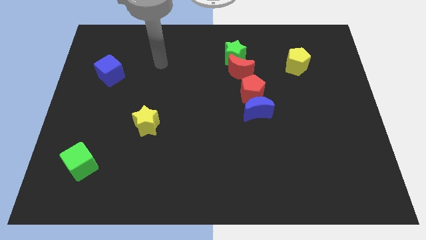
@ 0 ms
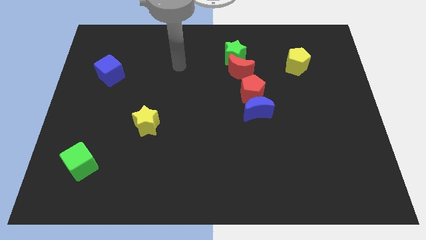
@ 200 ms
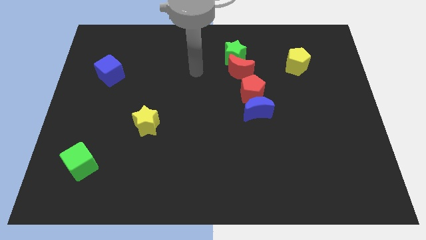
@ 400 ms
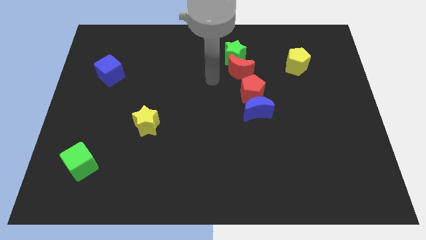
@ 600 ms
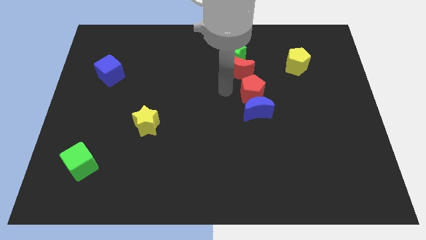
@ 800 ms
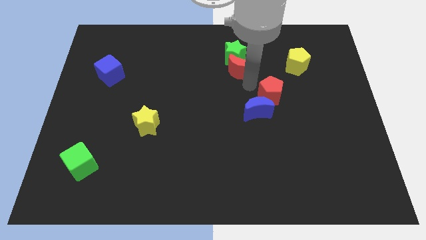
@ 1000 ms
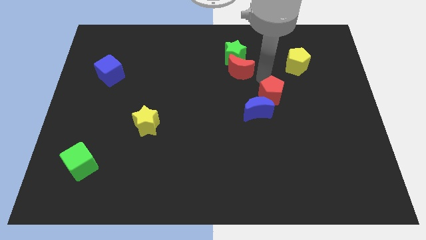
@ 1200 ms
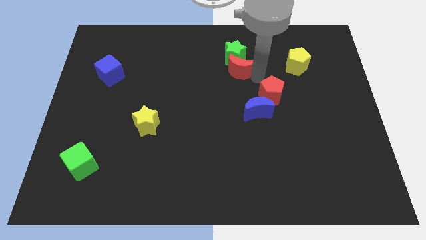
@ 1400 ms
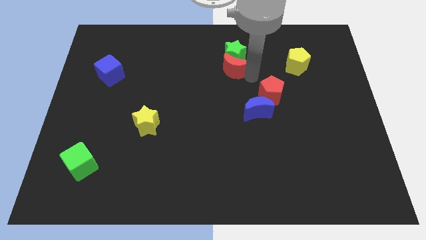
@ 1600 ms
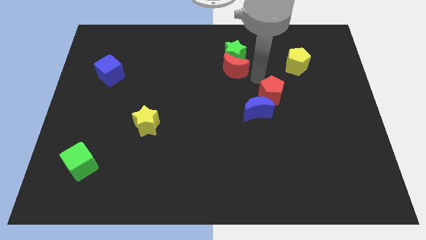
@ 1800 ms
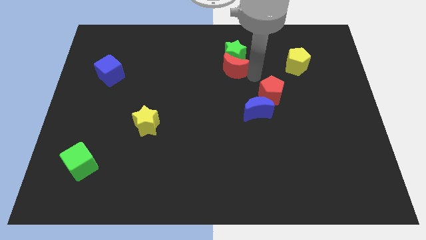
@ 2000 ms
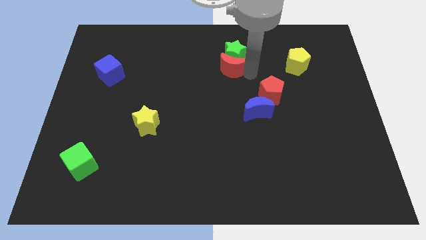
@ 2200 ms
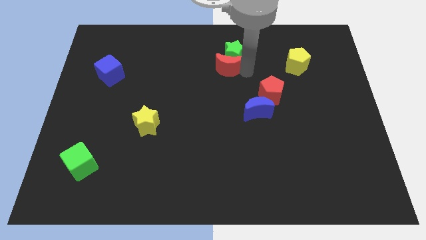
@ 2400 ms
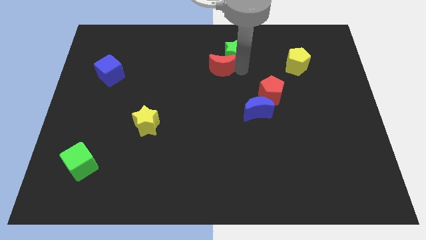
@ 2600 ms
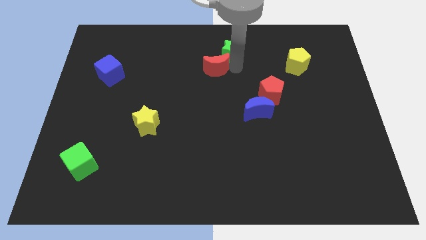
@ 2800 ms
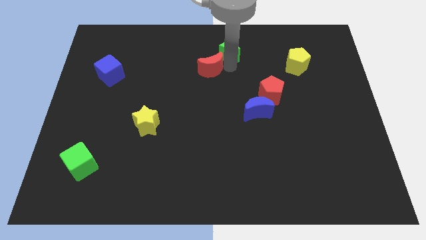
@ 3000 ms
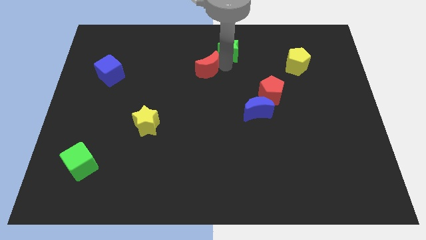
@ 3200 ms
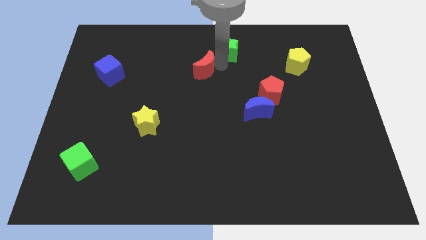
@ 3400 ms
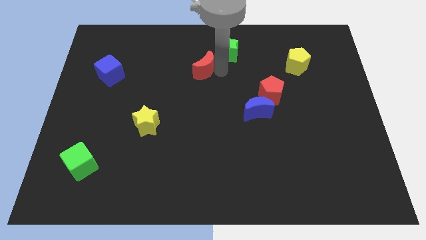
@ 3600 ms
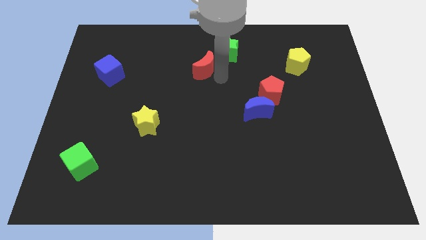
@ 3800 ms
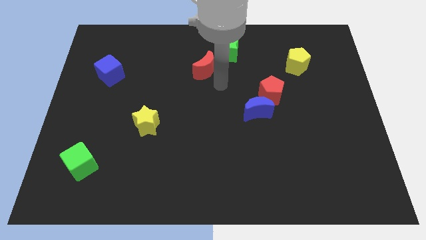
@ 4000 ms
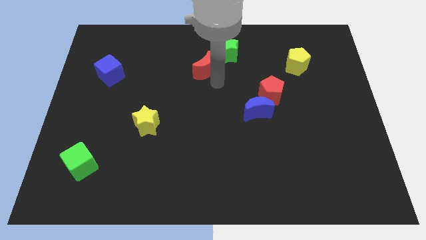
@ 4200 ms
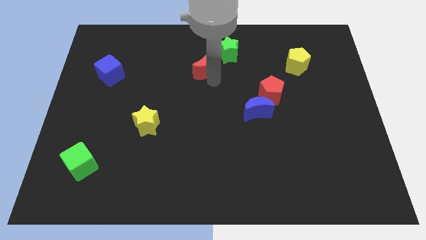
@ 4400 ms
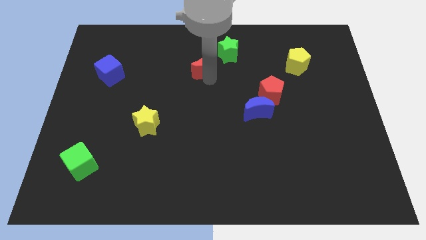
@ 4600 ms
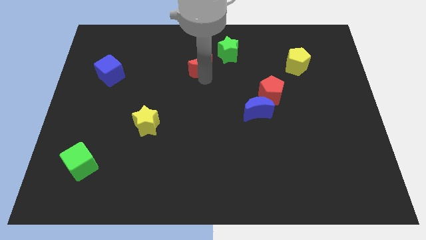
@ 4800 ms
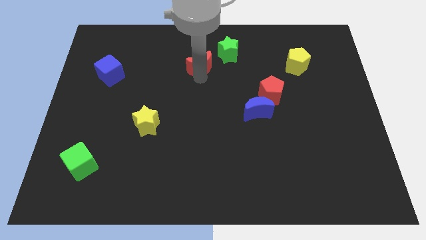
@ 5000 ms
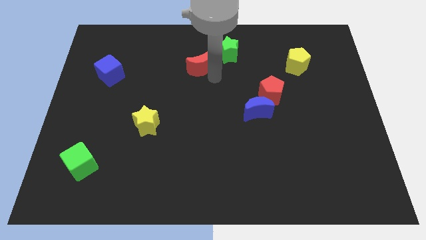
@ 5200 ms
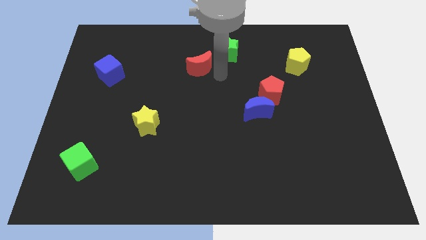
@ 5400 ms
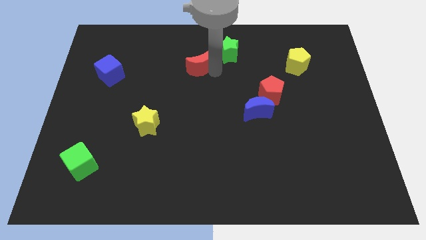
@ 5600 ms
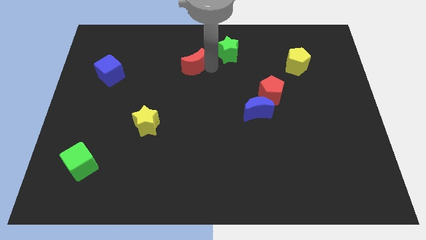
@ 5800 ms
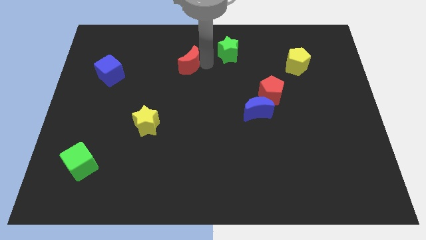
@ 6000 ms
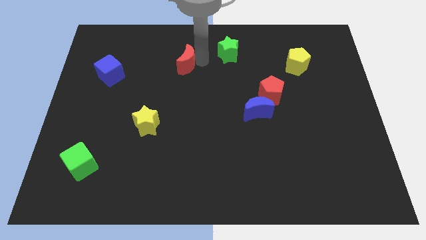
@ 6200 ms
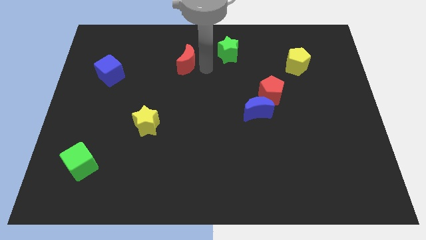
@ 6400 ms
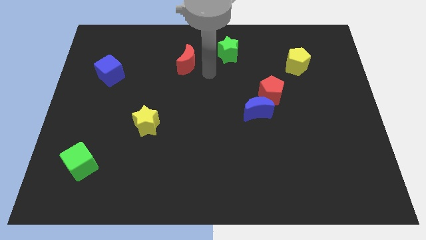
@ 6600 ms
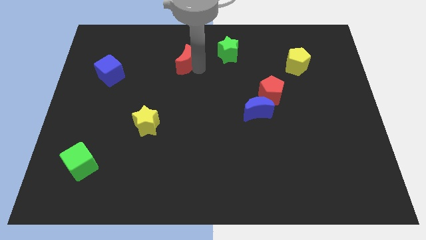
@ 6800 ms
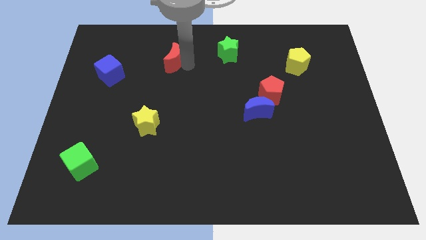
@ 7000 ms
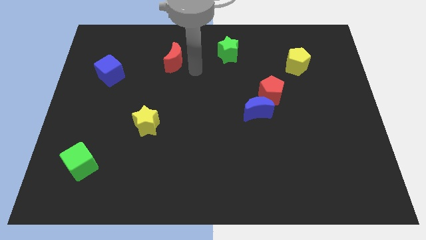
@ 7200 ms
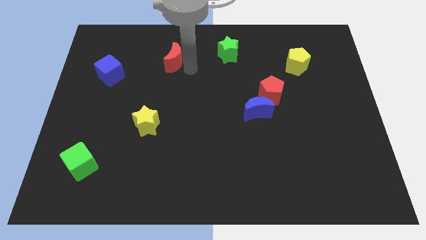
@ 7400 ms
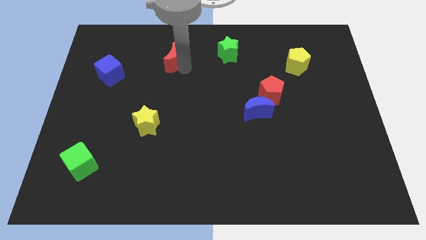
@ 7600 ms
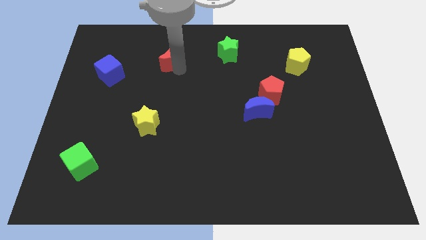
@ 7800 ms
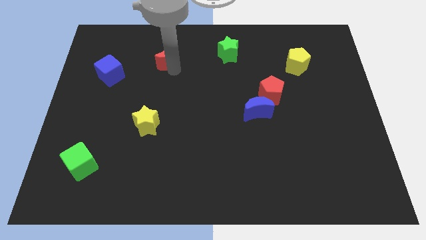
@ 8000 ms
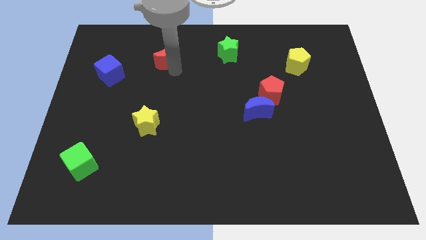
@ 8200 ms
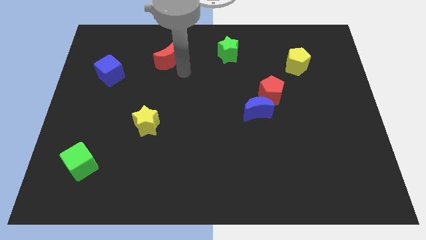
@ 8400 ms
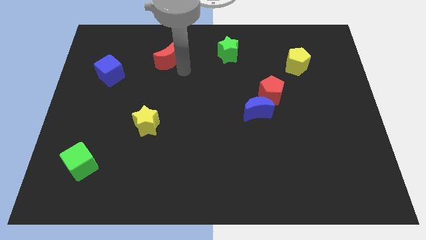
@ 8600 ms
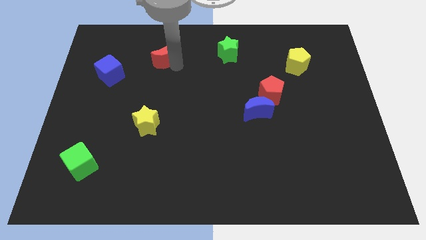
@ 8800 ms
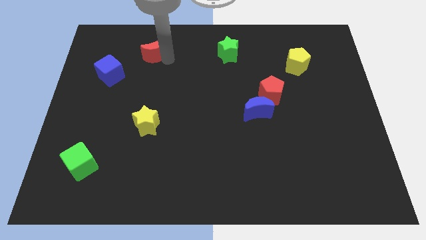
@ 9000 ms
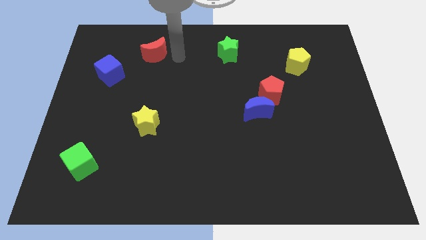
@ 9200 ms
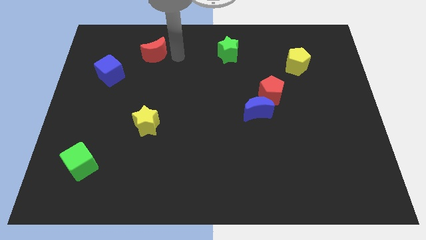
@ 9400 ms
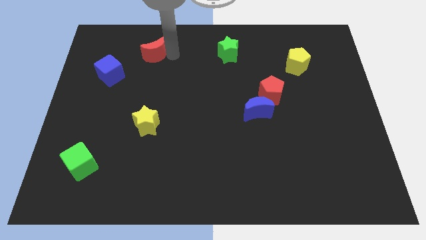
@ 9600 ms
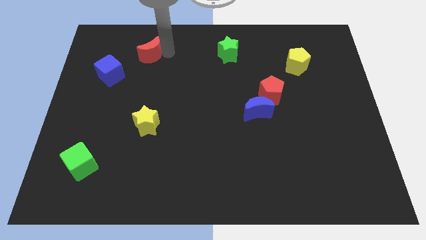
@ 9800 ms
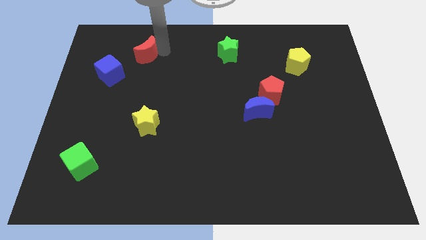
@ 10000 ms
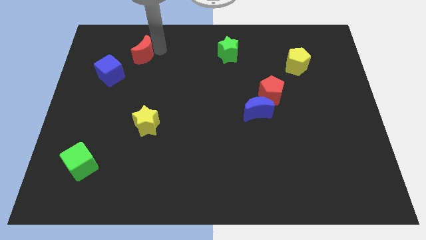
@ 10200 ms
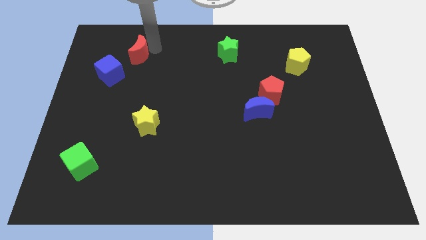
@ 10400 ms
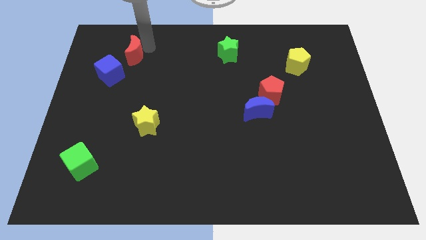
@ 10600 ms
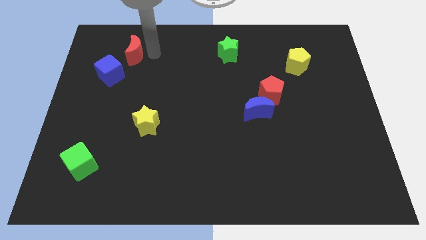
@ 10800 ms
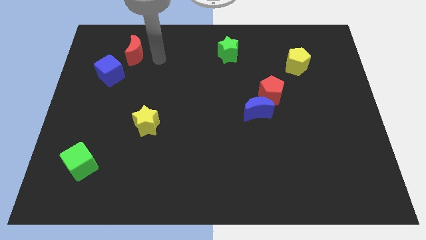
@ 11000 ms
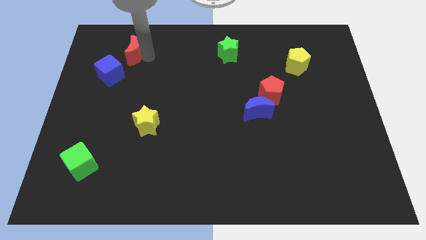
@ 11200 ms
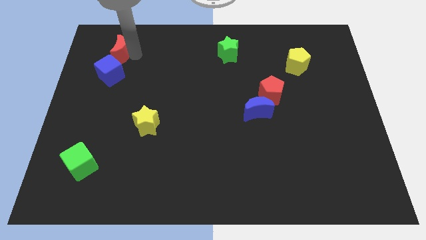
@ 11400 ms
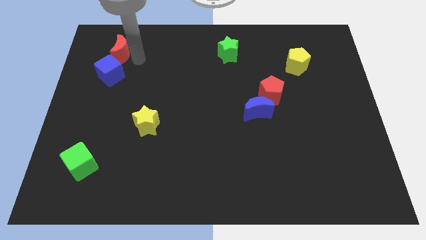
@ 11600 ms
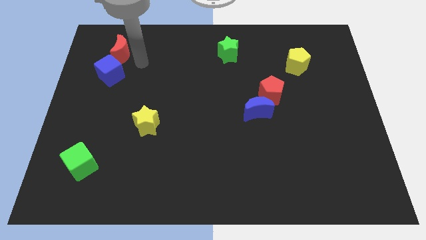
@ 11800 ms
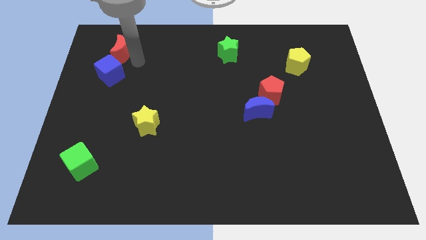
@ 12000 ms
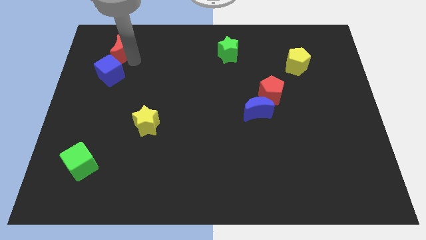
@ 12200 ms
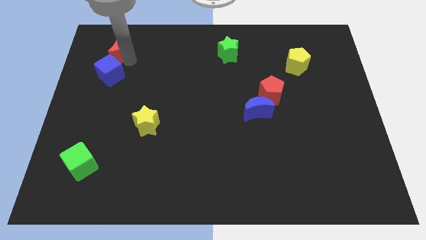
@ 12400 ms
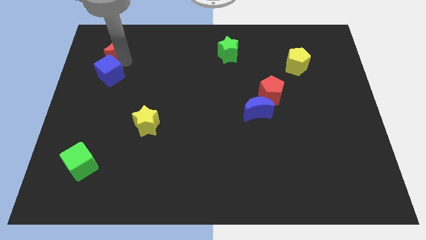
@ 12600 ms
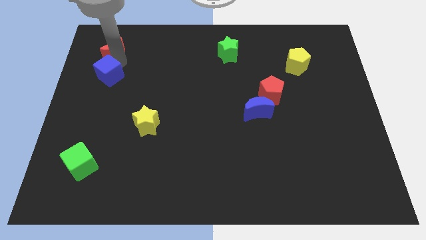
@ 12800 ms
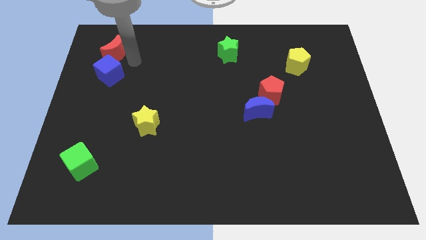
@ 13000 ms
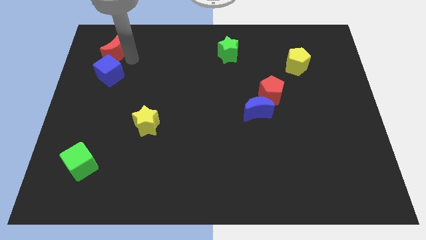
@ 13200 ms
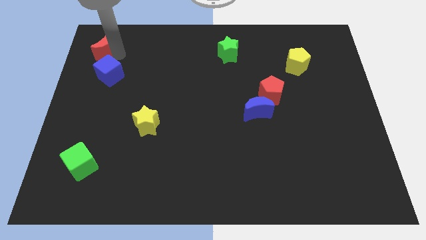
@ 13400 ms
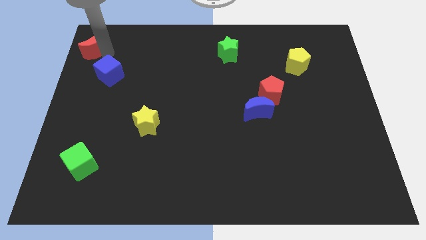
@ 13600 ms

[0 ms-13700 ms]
push the red moon to the top left of the board

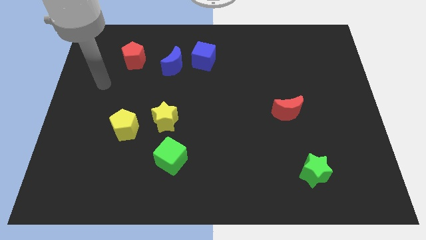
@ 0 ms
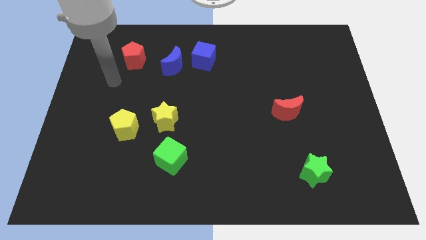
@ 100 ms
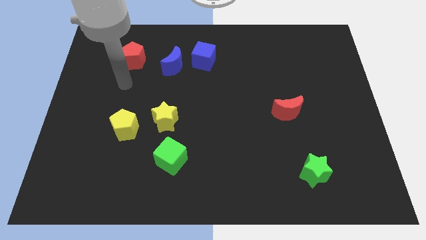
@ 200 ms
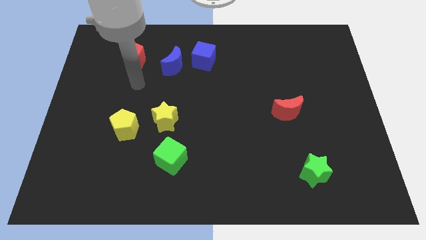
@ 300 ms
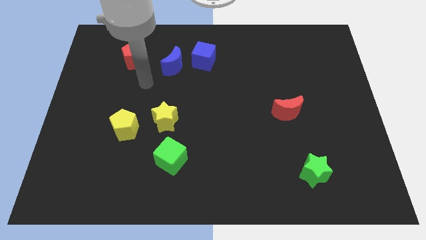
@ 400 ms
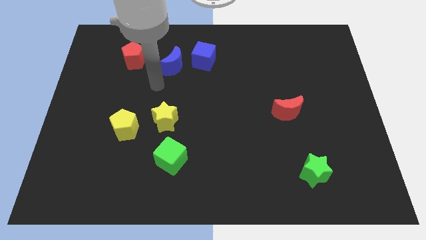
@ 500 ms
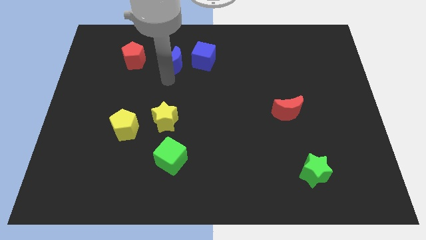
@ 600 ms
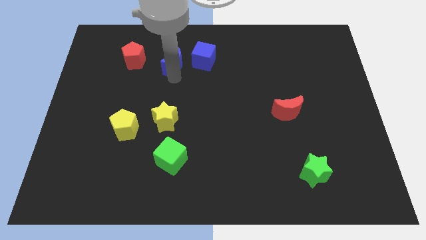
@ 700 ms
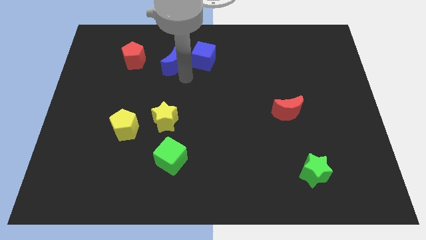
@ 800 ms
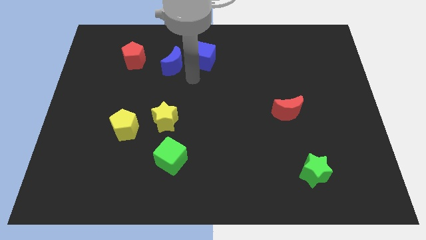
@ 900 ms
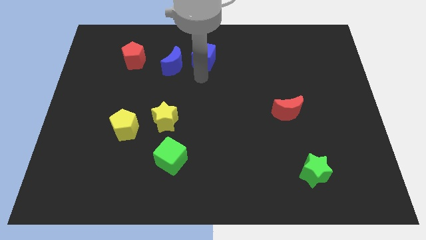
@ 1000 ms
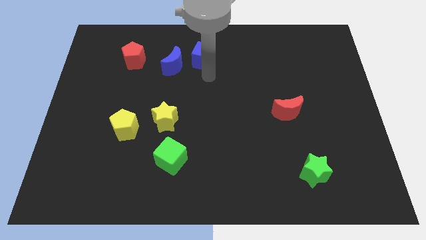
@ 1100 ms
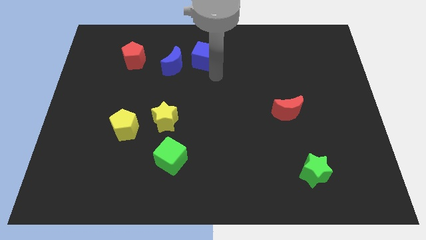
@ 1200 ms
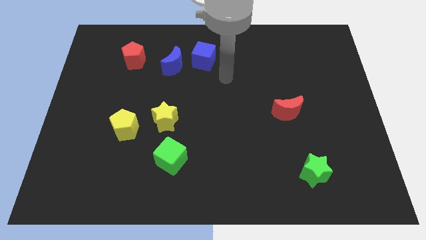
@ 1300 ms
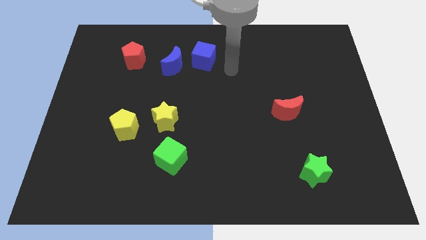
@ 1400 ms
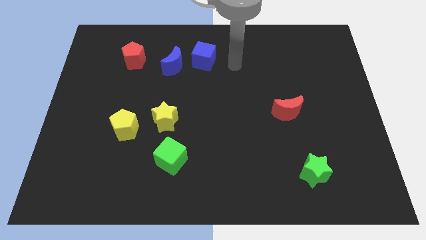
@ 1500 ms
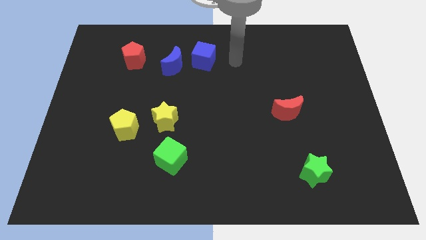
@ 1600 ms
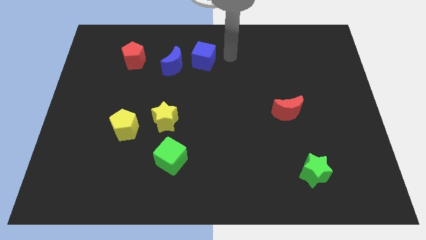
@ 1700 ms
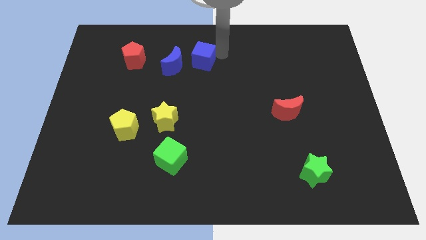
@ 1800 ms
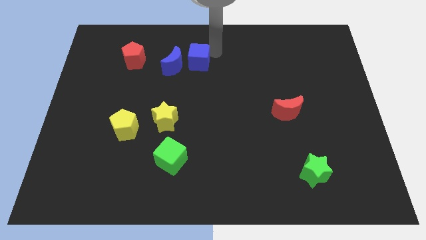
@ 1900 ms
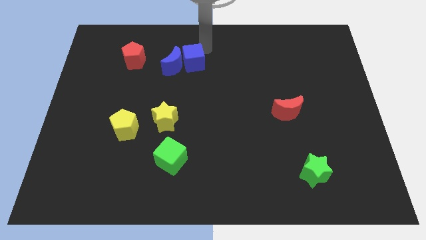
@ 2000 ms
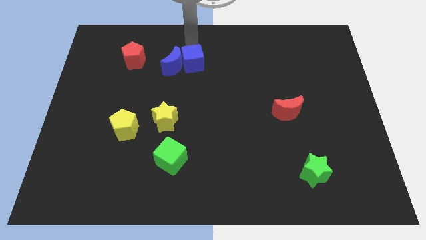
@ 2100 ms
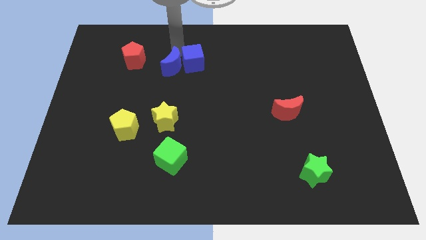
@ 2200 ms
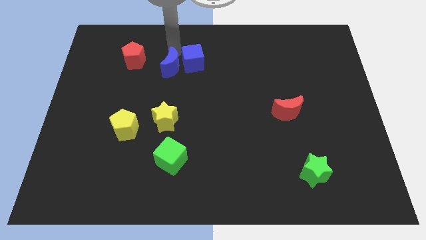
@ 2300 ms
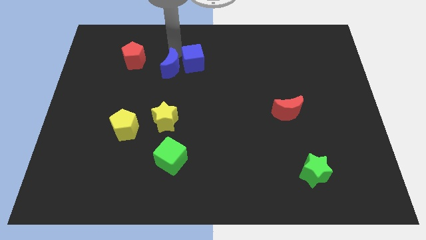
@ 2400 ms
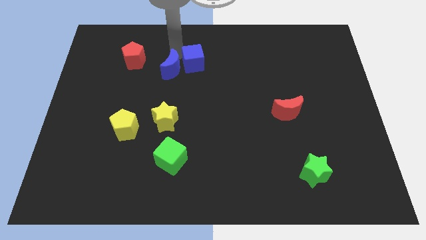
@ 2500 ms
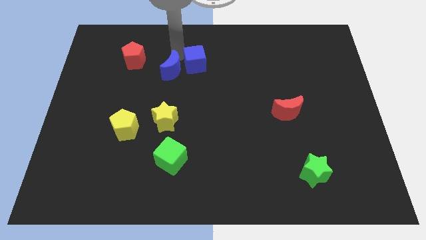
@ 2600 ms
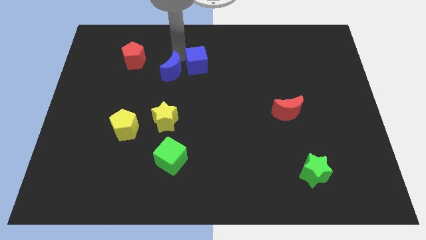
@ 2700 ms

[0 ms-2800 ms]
slide the blue cube to the center
